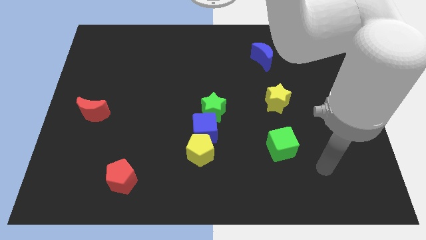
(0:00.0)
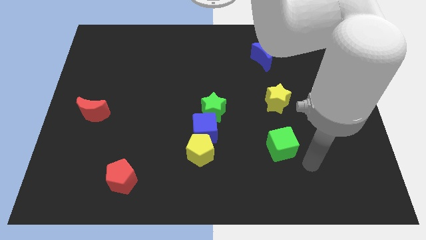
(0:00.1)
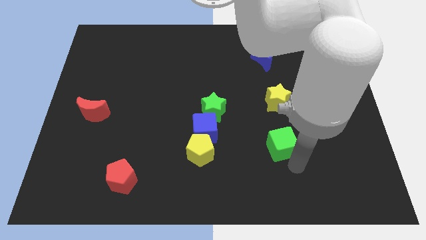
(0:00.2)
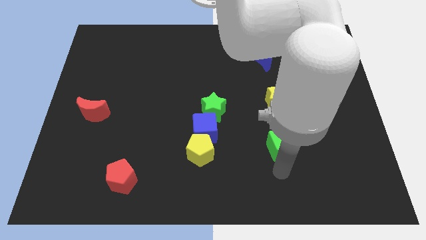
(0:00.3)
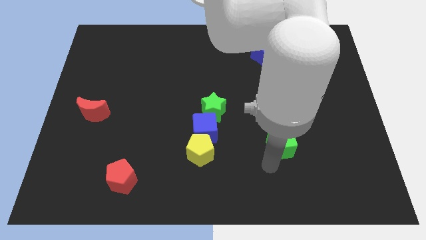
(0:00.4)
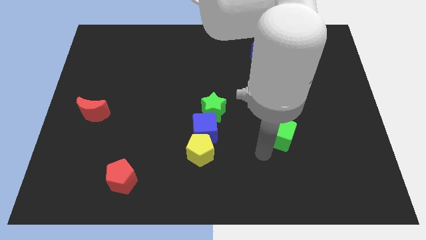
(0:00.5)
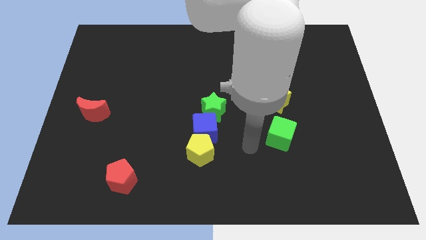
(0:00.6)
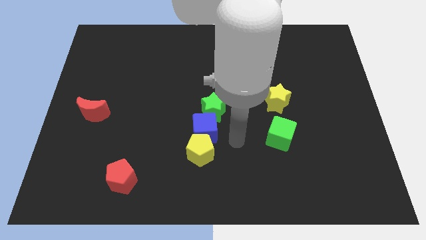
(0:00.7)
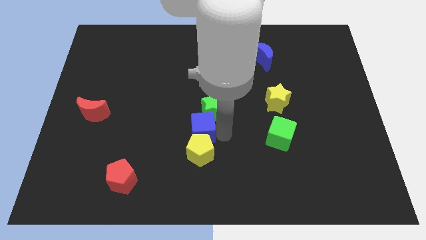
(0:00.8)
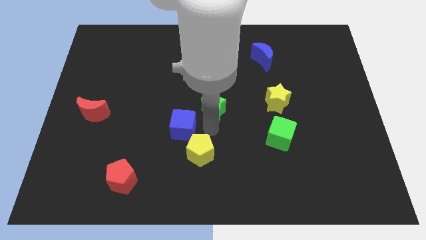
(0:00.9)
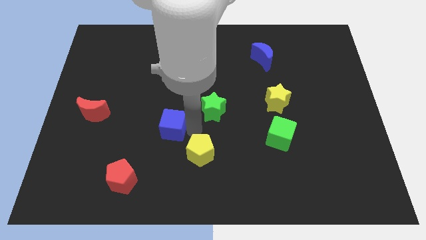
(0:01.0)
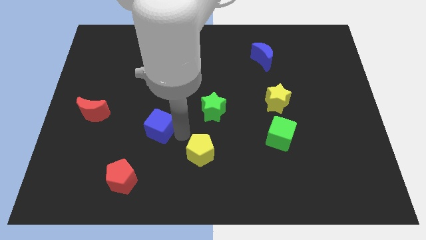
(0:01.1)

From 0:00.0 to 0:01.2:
move the yellow pentagon away from the blue cube

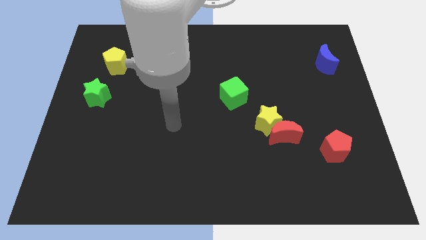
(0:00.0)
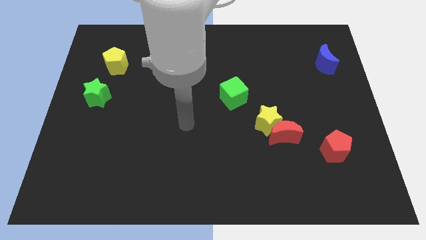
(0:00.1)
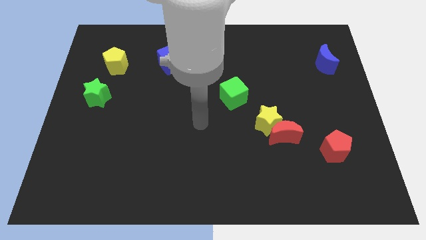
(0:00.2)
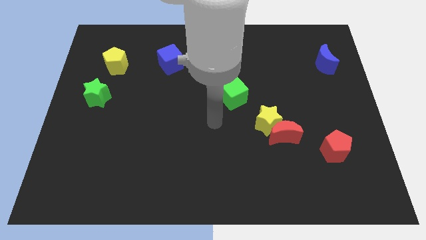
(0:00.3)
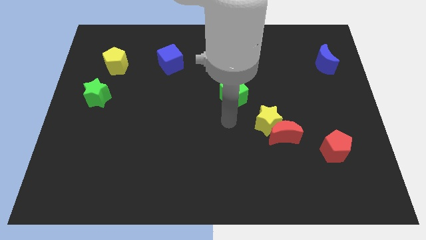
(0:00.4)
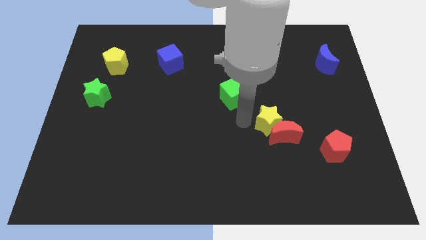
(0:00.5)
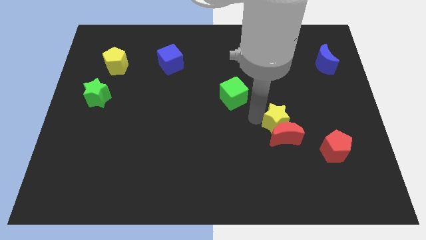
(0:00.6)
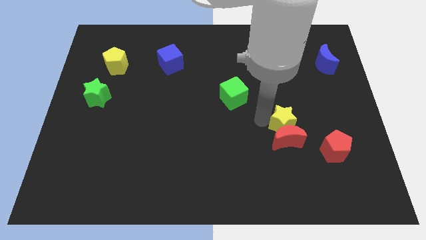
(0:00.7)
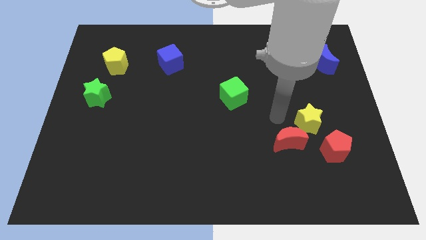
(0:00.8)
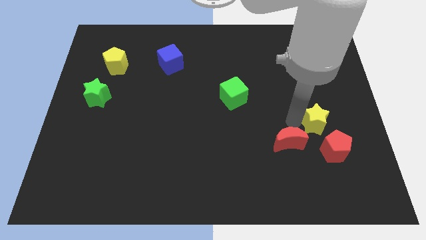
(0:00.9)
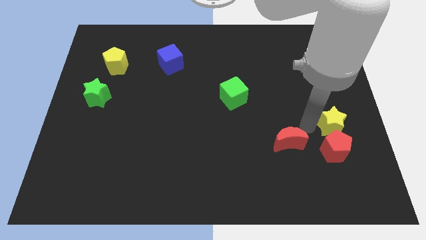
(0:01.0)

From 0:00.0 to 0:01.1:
pull the red moon apart from the yellow star

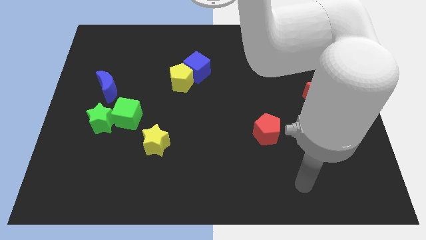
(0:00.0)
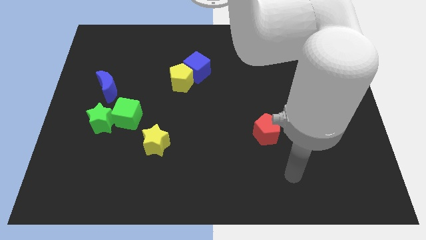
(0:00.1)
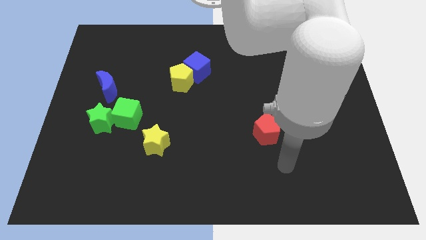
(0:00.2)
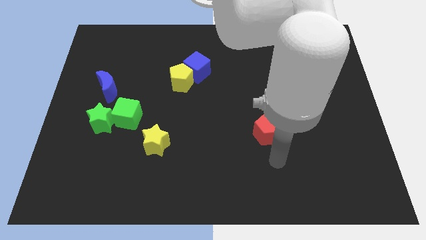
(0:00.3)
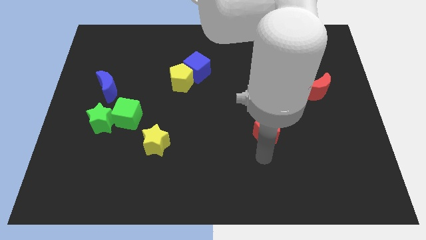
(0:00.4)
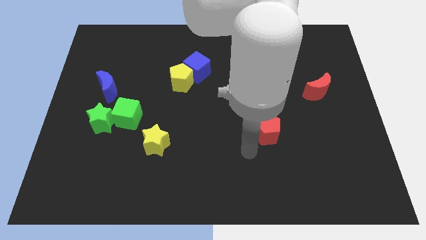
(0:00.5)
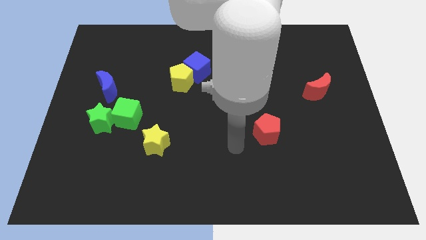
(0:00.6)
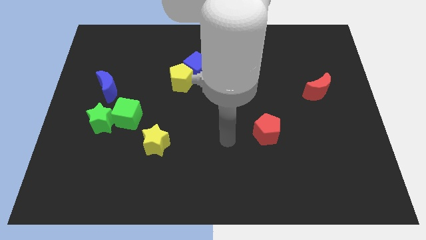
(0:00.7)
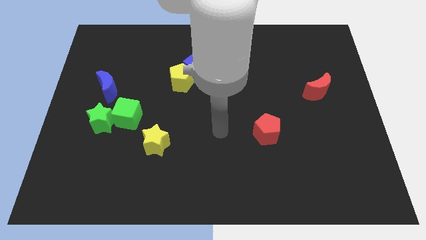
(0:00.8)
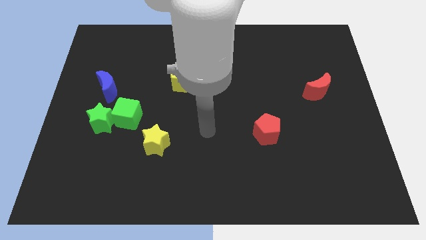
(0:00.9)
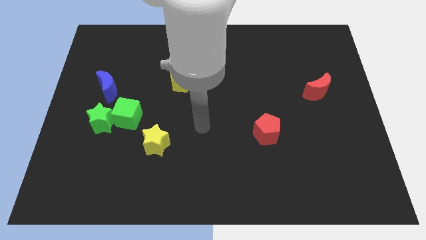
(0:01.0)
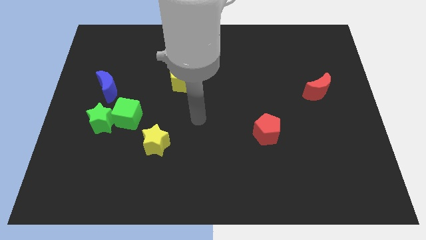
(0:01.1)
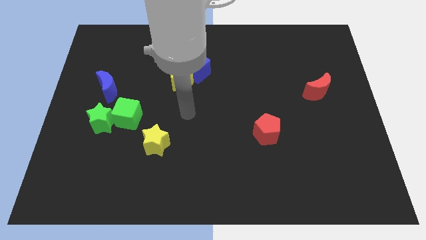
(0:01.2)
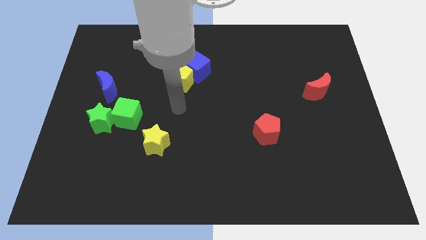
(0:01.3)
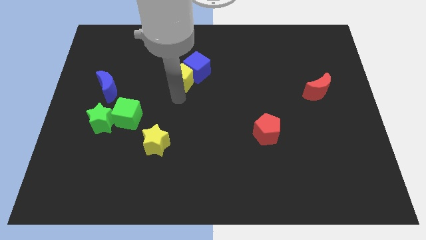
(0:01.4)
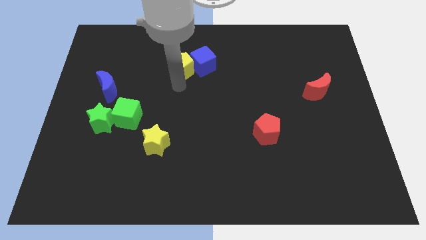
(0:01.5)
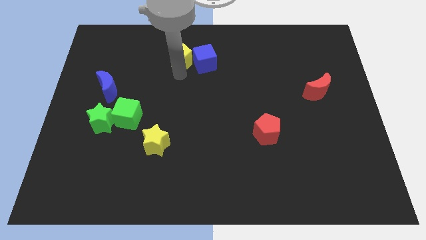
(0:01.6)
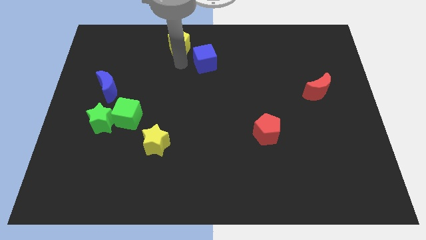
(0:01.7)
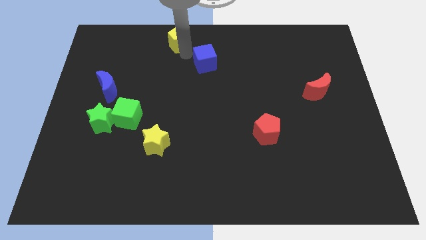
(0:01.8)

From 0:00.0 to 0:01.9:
pull the blue cube apart from the yellow pentagon

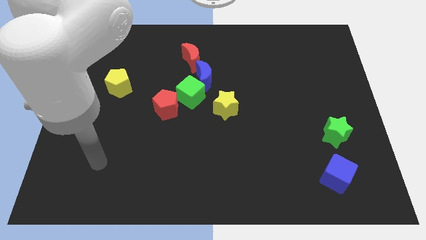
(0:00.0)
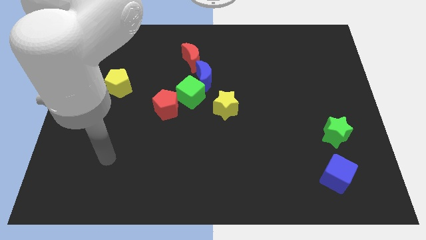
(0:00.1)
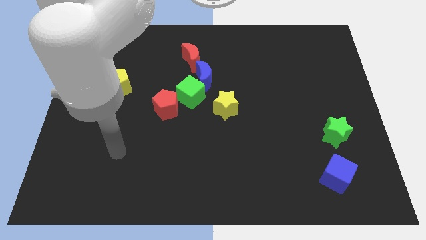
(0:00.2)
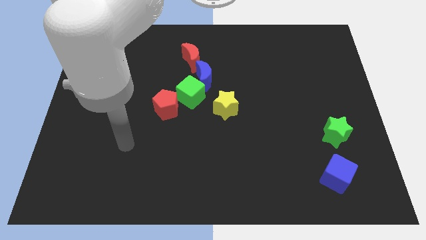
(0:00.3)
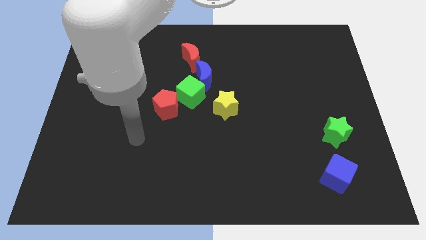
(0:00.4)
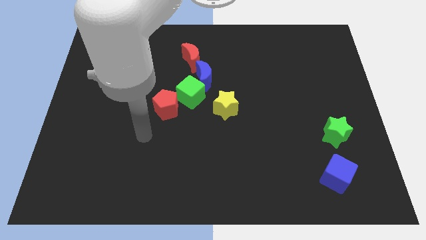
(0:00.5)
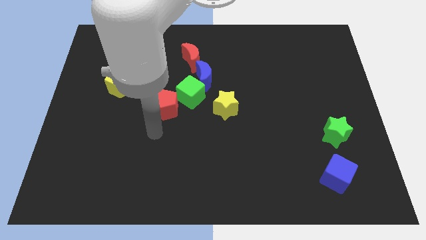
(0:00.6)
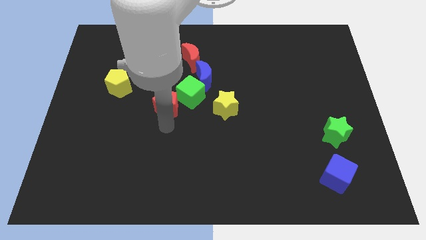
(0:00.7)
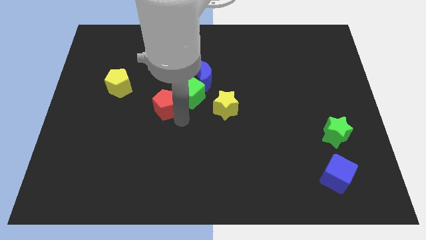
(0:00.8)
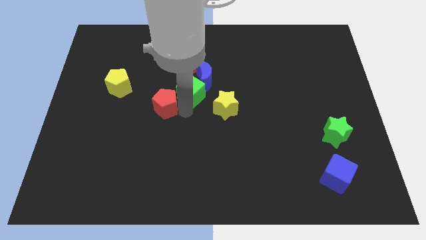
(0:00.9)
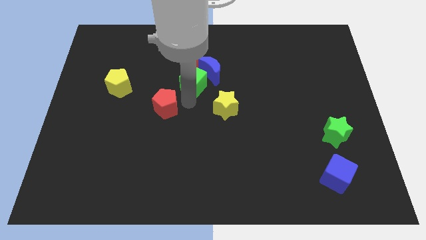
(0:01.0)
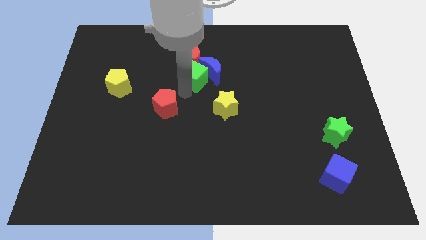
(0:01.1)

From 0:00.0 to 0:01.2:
move the red pentagon away from the green cube

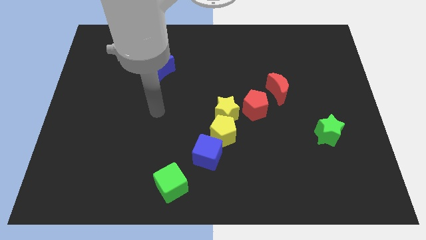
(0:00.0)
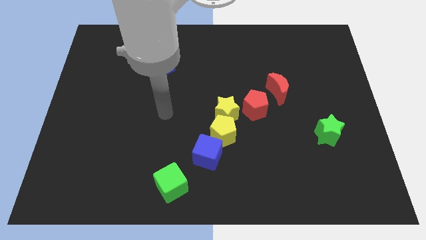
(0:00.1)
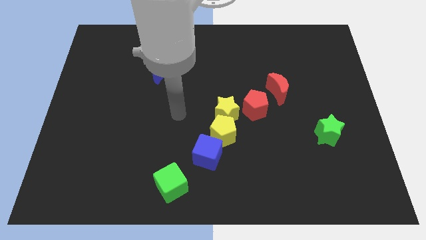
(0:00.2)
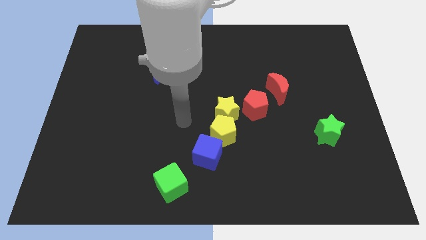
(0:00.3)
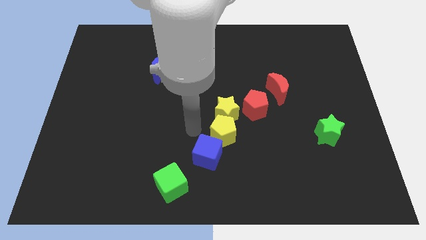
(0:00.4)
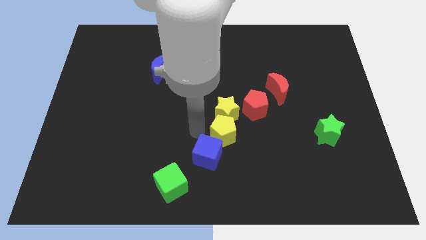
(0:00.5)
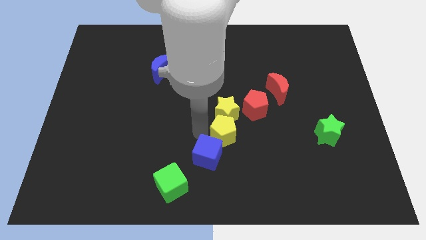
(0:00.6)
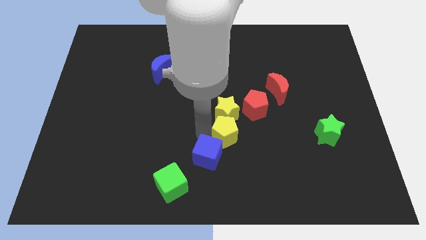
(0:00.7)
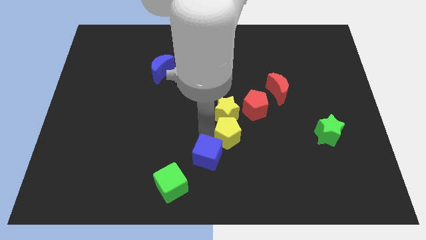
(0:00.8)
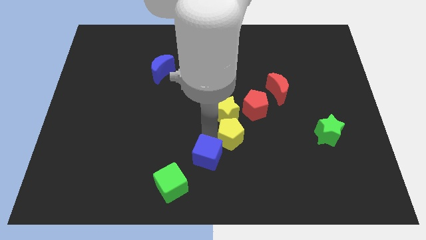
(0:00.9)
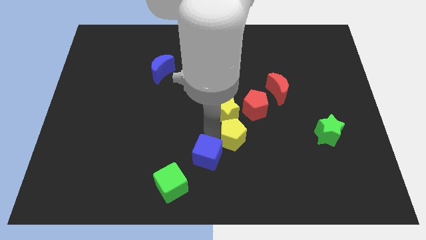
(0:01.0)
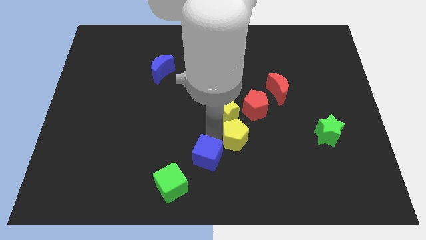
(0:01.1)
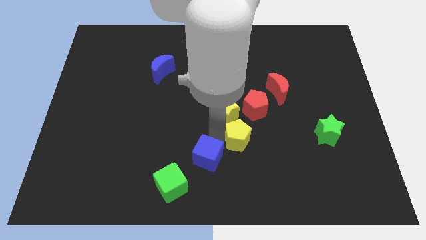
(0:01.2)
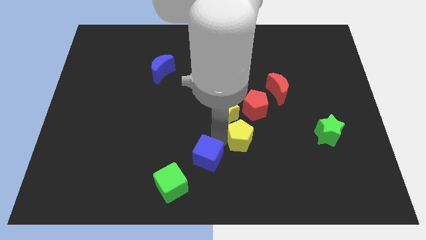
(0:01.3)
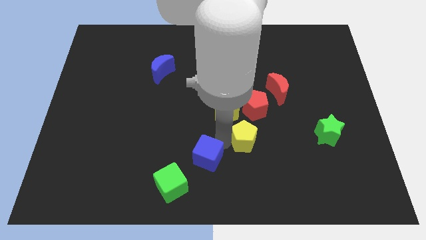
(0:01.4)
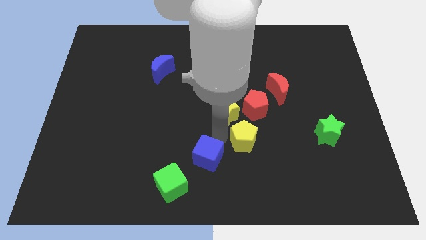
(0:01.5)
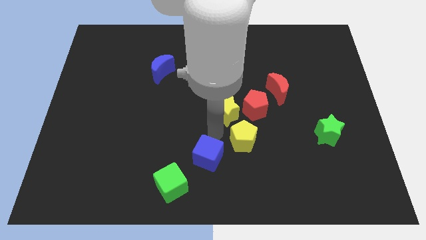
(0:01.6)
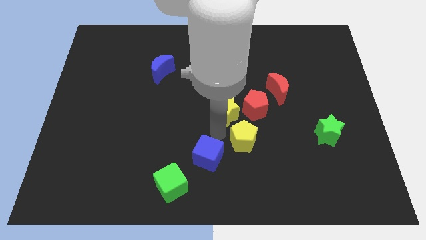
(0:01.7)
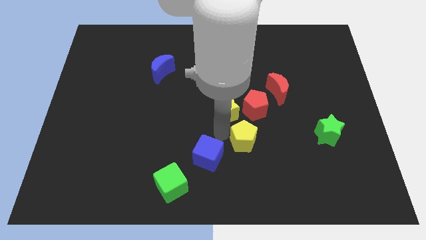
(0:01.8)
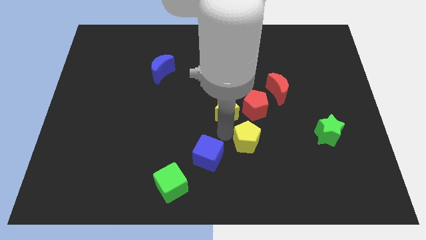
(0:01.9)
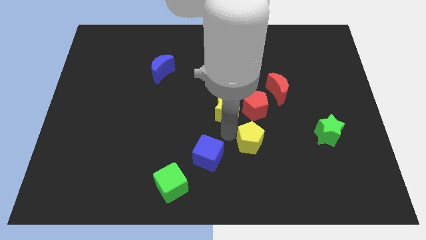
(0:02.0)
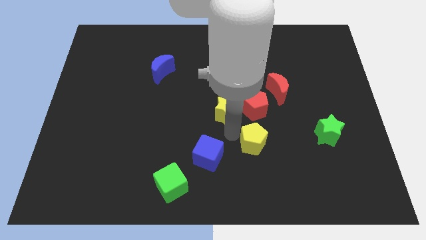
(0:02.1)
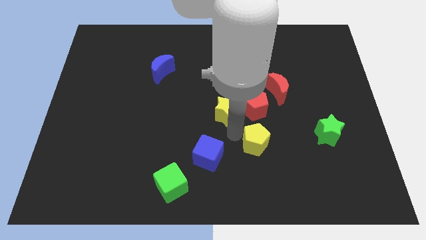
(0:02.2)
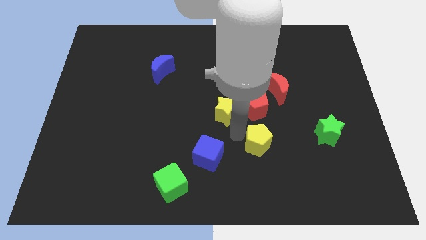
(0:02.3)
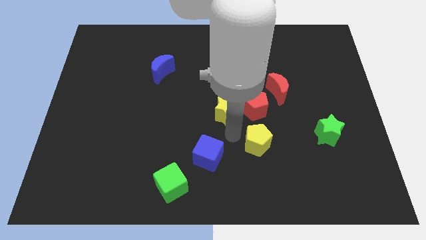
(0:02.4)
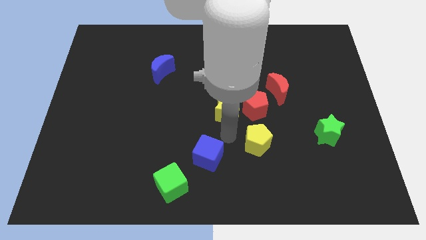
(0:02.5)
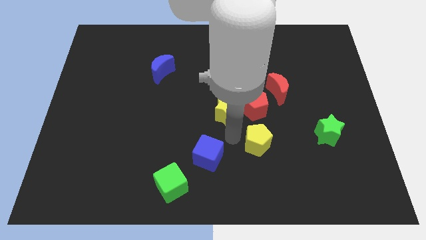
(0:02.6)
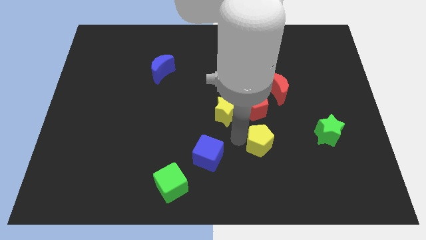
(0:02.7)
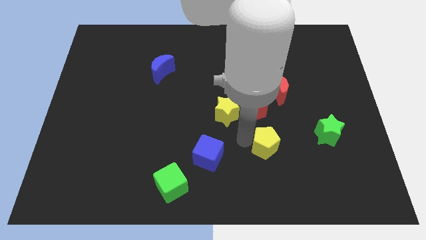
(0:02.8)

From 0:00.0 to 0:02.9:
separate the yellow pentagon from the yellow star and blue cube

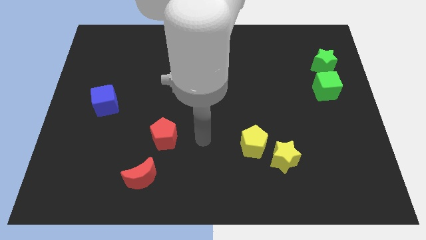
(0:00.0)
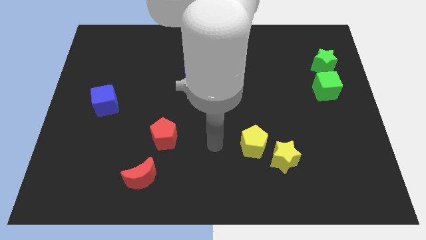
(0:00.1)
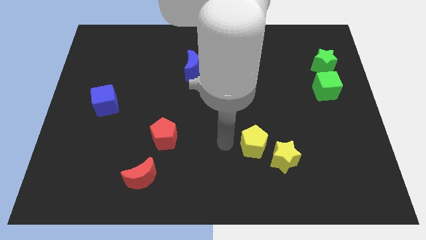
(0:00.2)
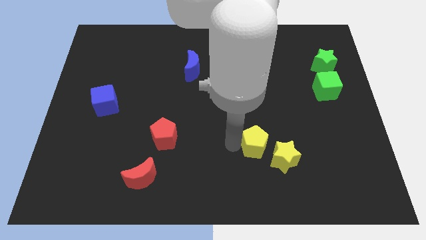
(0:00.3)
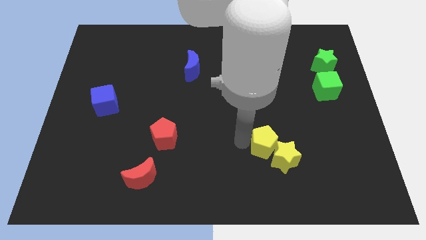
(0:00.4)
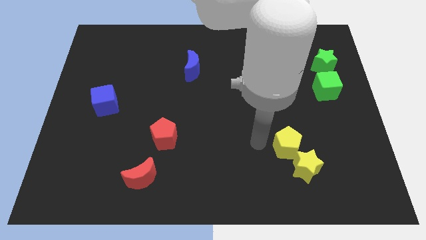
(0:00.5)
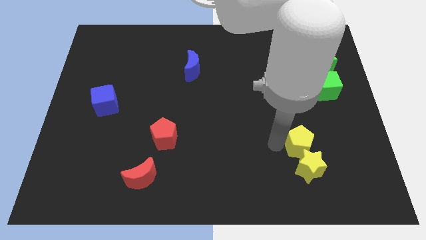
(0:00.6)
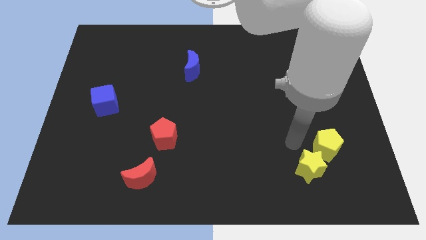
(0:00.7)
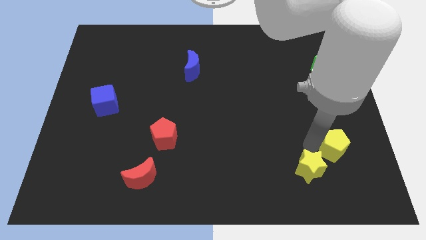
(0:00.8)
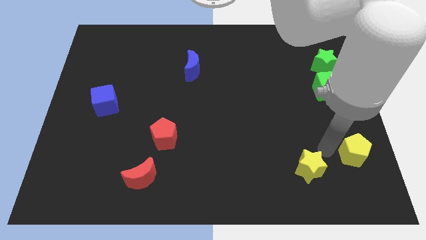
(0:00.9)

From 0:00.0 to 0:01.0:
separate the yellow star from the yellow pentagon
